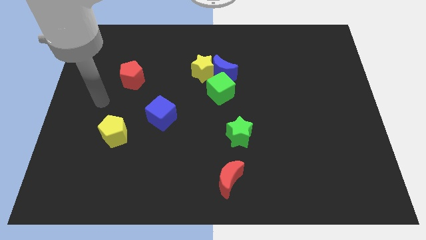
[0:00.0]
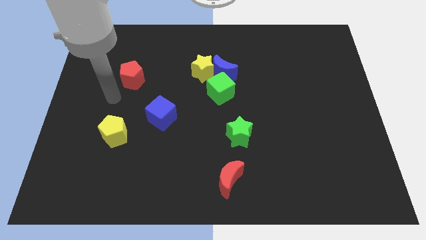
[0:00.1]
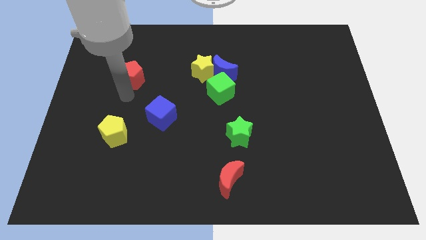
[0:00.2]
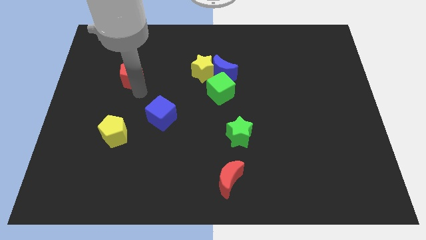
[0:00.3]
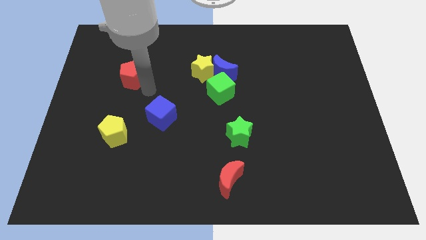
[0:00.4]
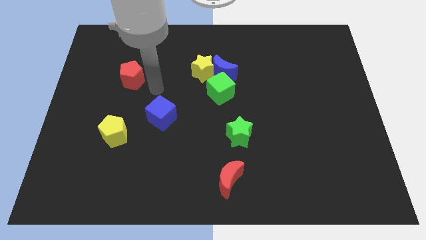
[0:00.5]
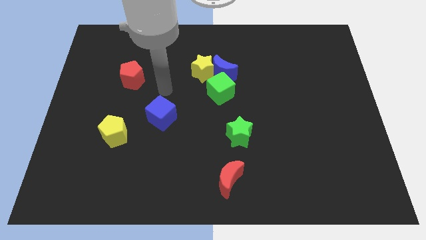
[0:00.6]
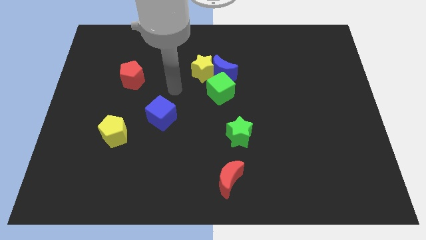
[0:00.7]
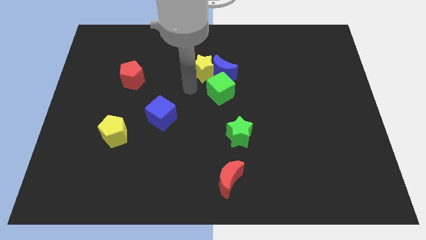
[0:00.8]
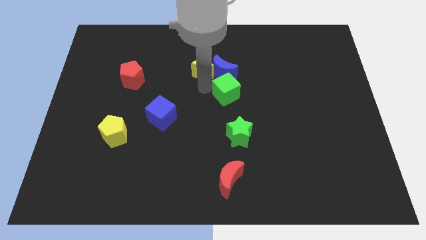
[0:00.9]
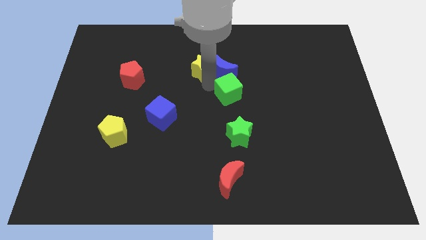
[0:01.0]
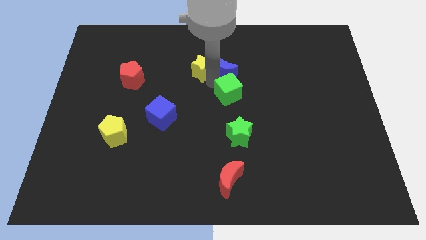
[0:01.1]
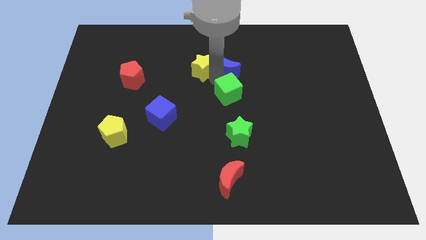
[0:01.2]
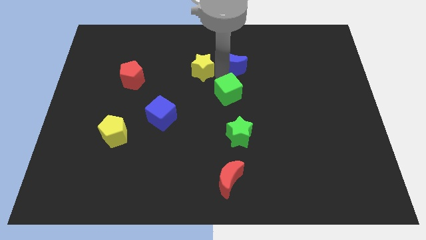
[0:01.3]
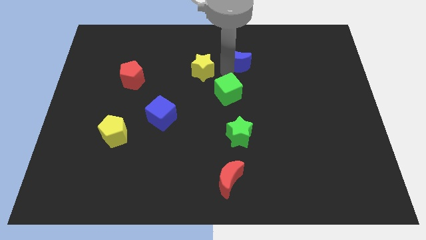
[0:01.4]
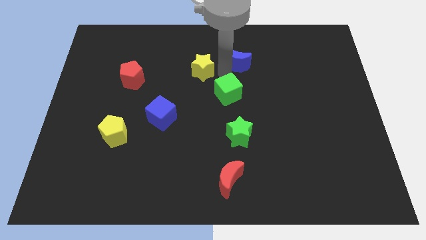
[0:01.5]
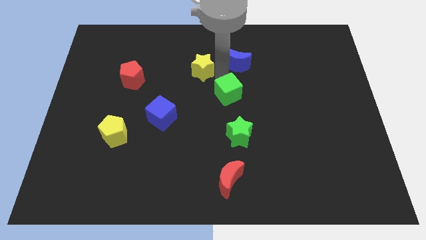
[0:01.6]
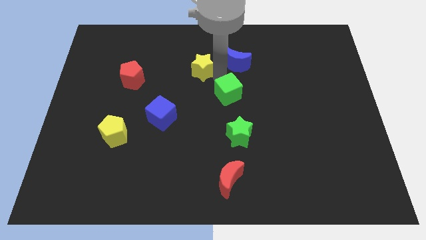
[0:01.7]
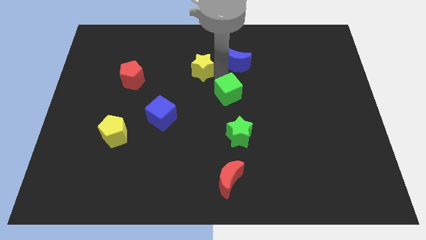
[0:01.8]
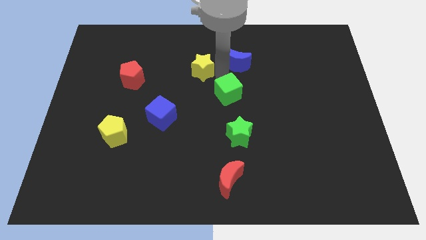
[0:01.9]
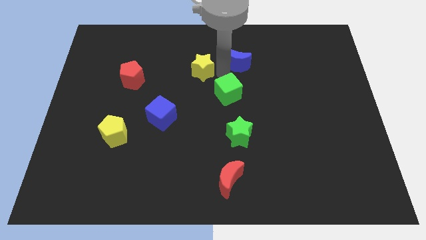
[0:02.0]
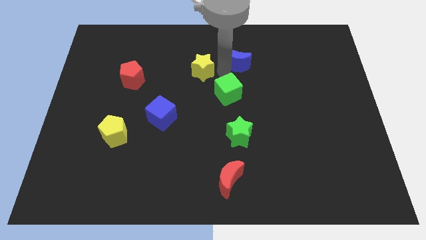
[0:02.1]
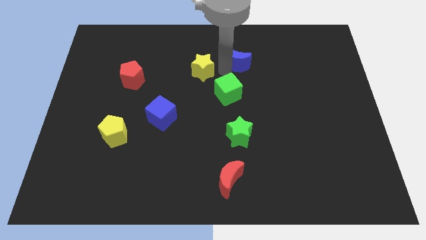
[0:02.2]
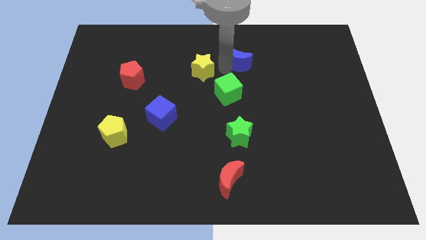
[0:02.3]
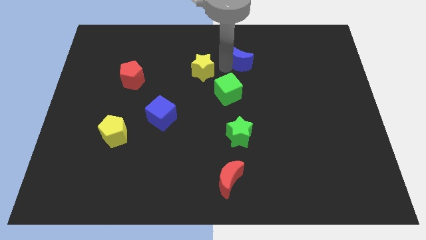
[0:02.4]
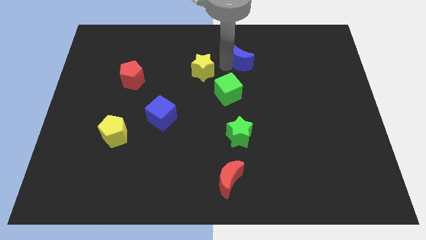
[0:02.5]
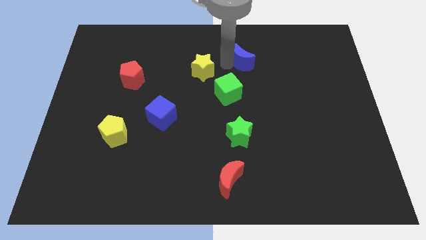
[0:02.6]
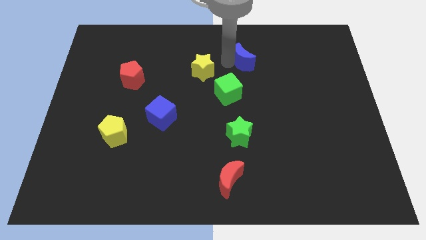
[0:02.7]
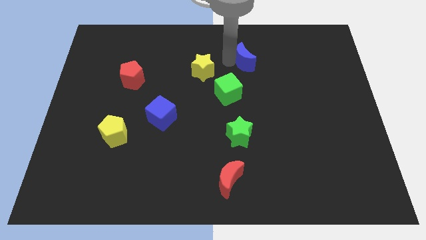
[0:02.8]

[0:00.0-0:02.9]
move the blue moon away from the yellow star and green cube

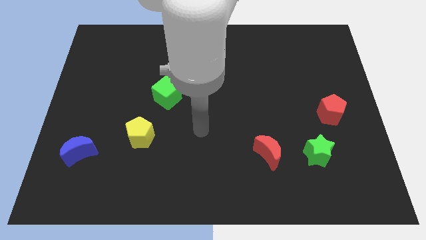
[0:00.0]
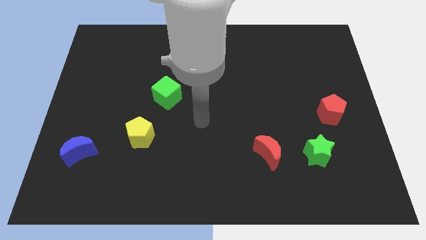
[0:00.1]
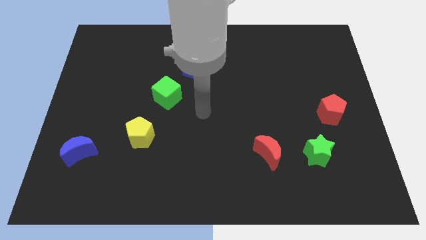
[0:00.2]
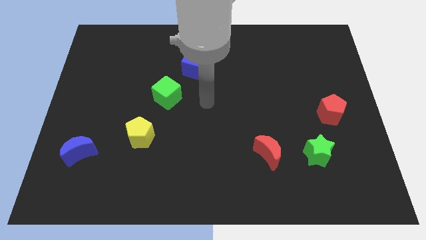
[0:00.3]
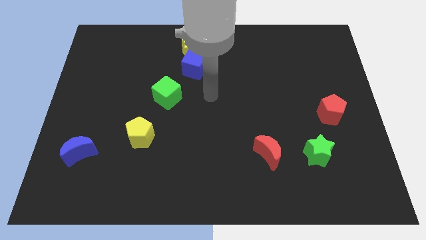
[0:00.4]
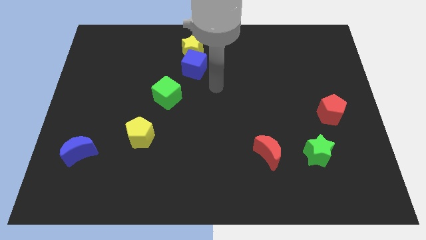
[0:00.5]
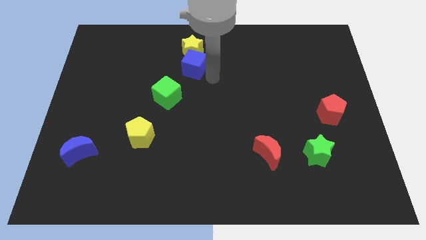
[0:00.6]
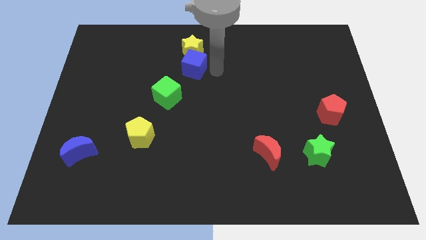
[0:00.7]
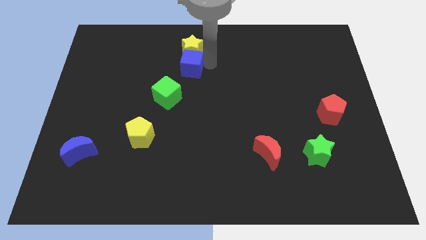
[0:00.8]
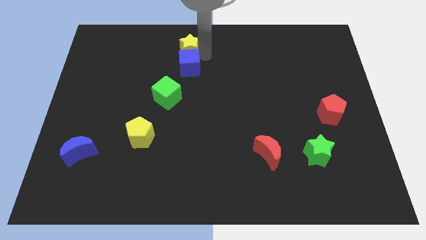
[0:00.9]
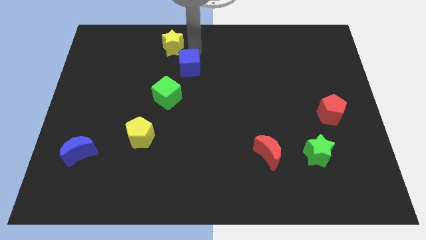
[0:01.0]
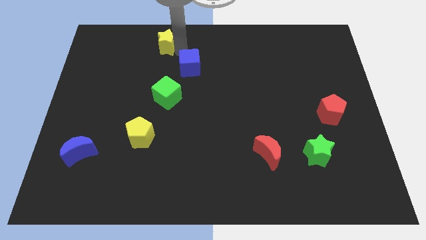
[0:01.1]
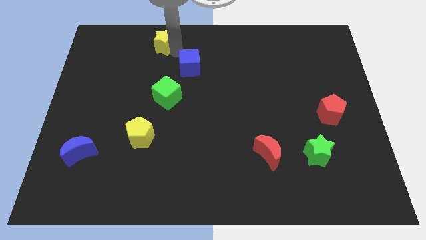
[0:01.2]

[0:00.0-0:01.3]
separate the blue cube from the yellow star

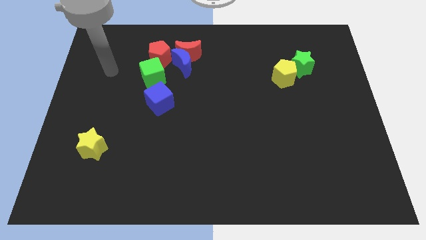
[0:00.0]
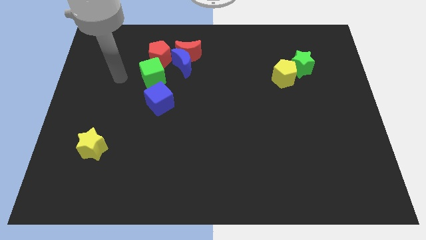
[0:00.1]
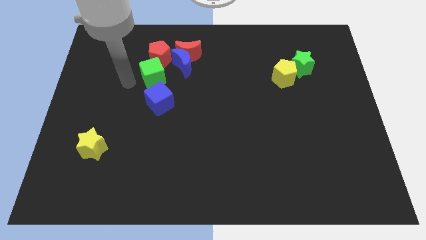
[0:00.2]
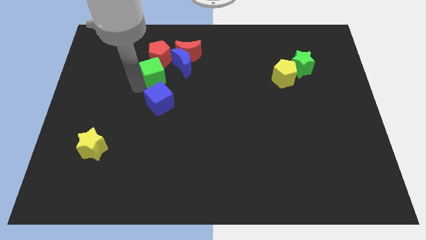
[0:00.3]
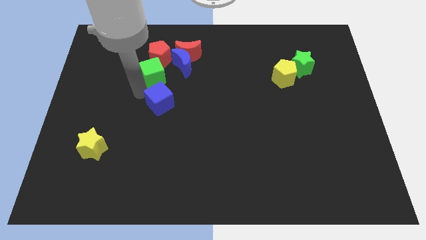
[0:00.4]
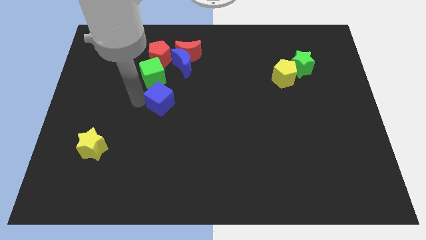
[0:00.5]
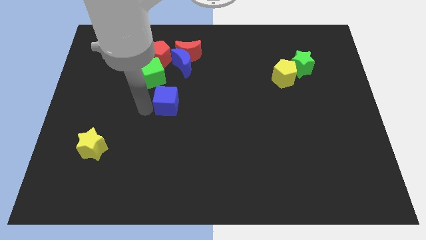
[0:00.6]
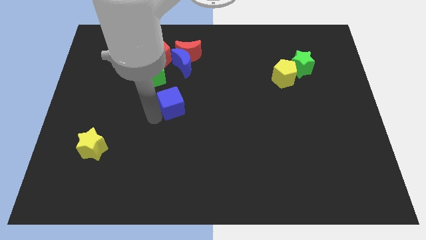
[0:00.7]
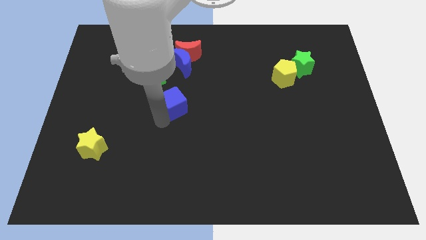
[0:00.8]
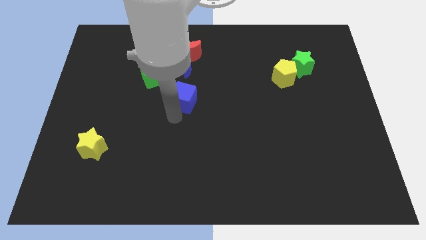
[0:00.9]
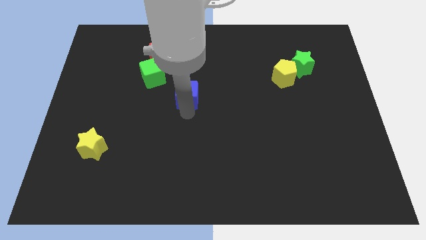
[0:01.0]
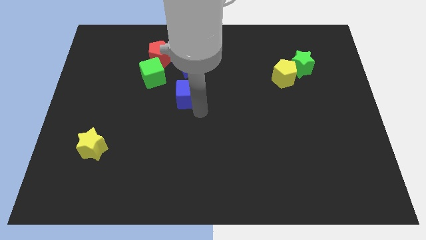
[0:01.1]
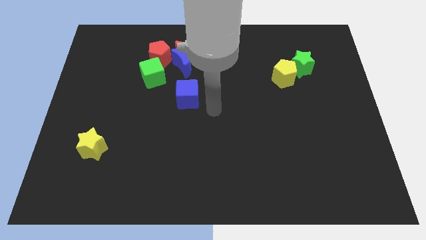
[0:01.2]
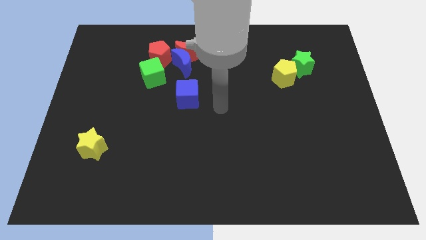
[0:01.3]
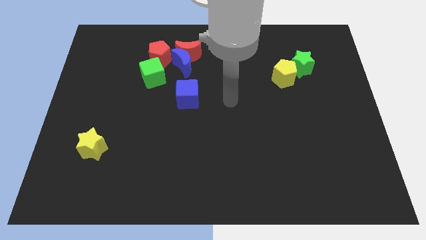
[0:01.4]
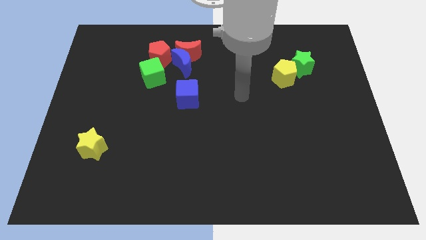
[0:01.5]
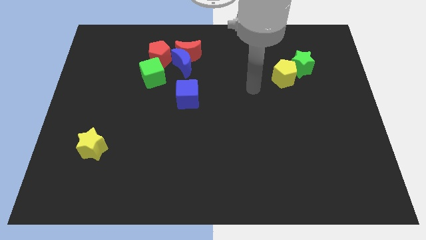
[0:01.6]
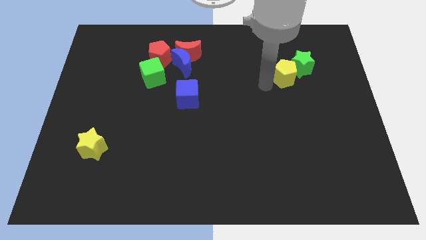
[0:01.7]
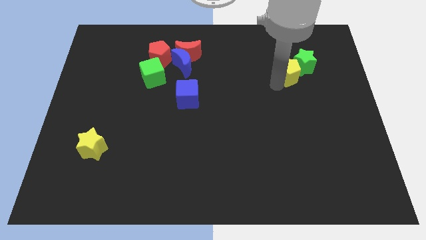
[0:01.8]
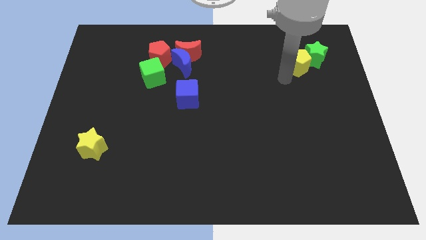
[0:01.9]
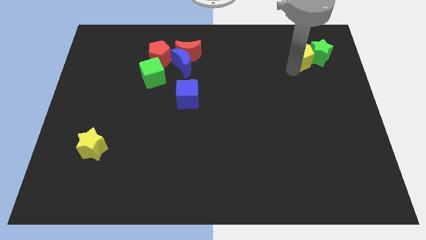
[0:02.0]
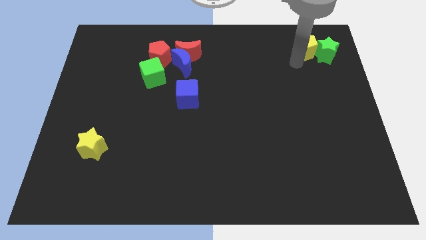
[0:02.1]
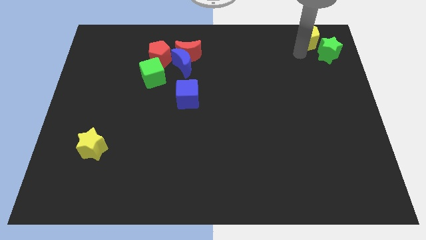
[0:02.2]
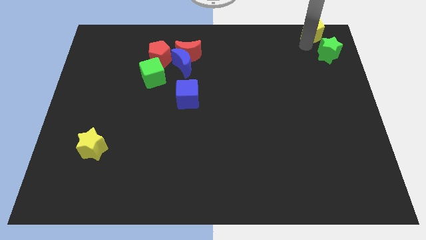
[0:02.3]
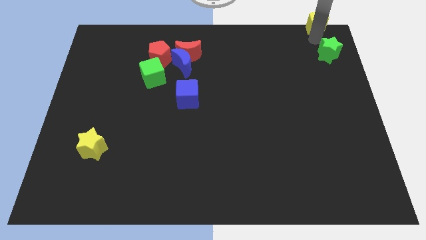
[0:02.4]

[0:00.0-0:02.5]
pull the green star apart from the yellow pentagon

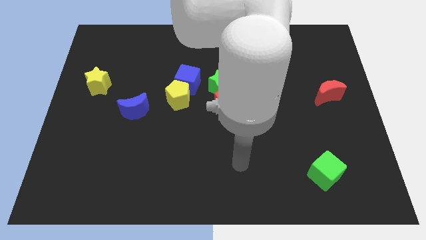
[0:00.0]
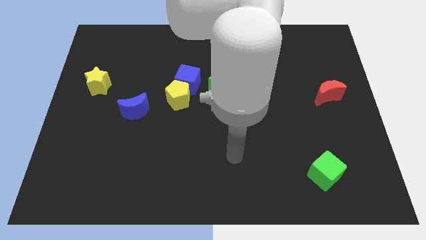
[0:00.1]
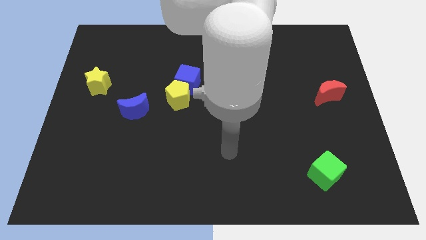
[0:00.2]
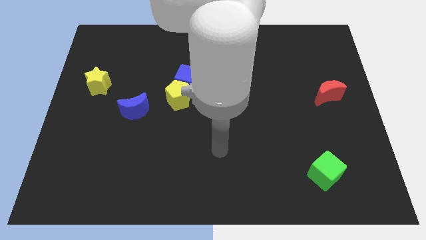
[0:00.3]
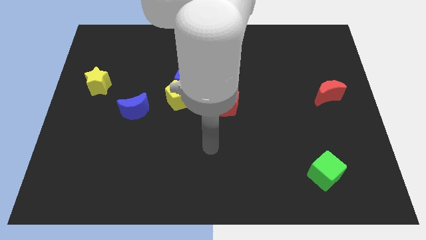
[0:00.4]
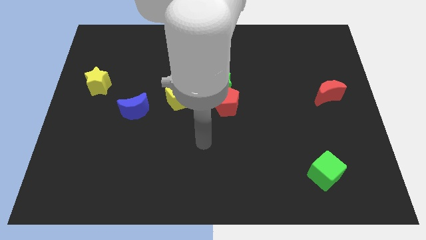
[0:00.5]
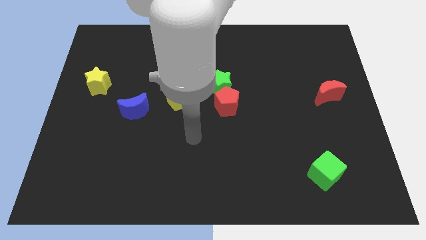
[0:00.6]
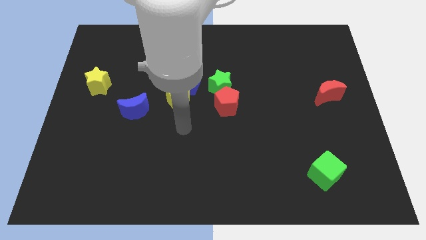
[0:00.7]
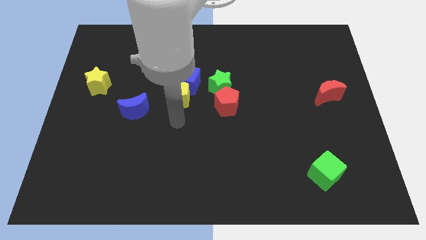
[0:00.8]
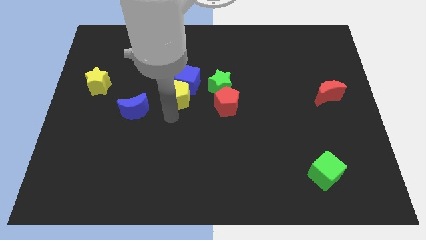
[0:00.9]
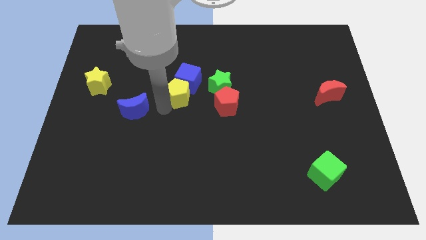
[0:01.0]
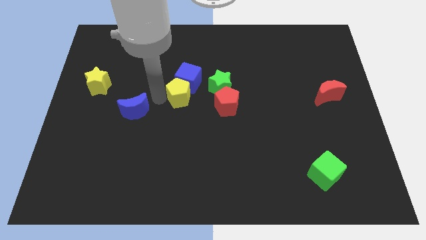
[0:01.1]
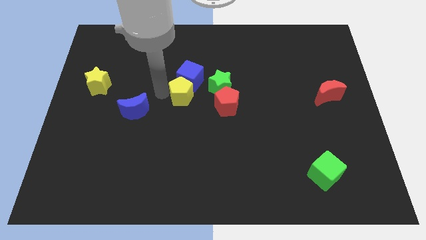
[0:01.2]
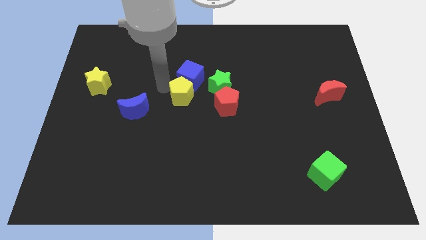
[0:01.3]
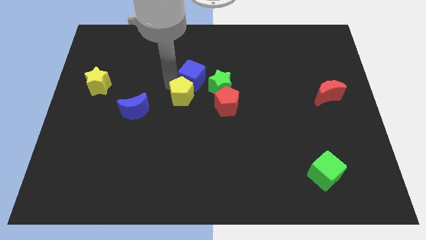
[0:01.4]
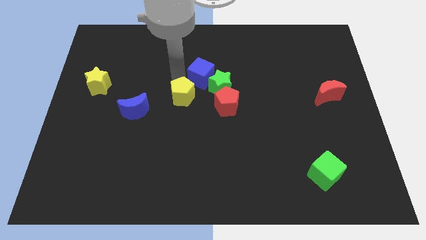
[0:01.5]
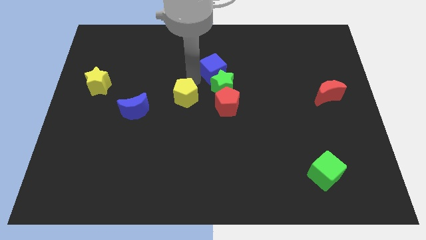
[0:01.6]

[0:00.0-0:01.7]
move the yellow pentagon away from the blue cube

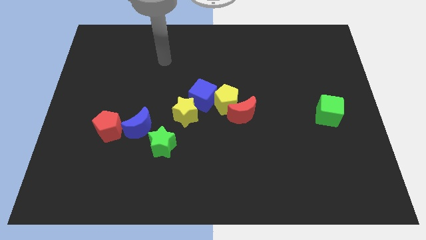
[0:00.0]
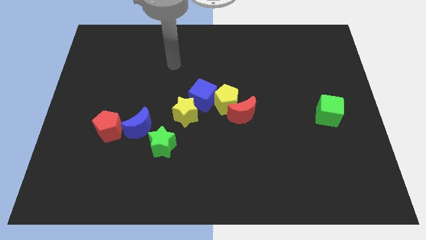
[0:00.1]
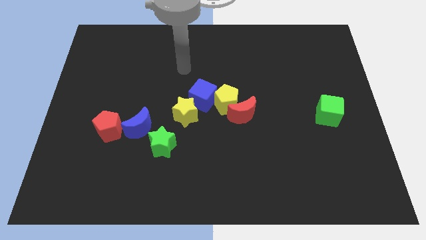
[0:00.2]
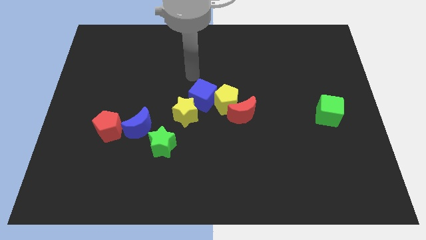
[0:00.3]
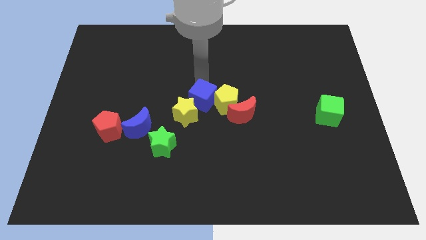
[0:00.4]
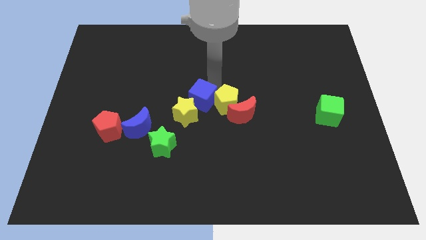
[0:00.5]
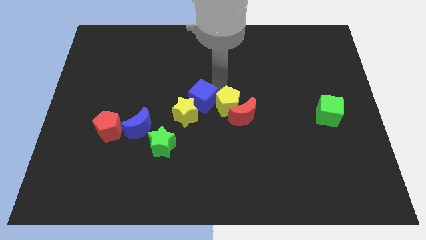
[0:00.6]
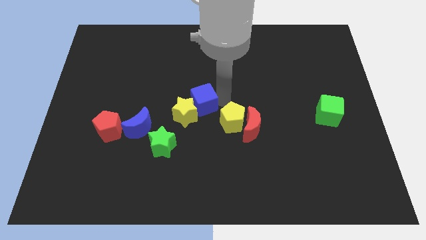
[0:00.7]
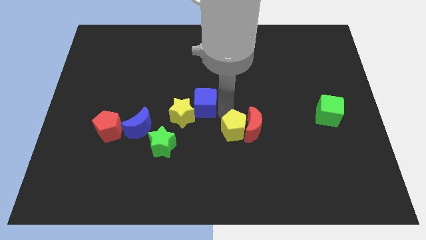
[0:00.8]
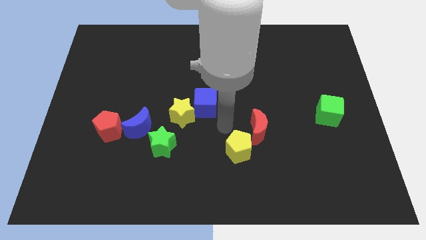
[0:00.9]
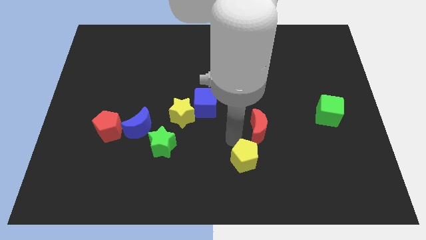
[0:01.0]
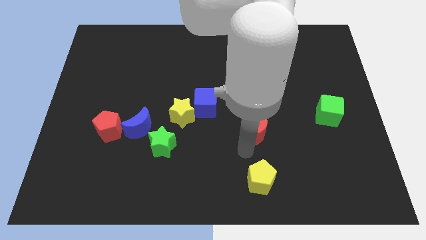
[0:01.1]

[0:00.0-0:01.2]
pull the red moon apart from the yellow pentagon
